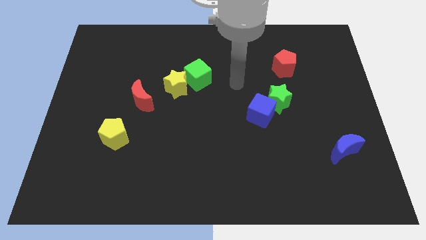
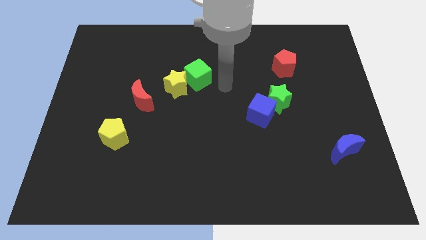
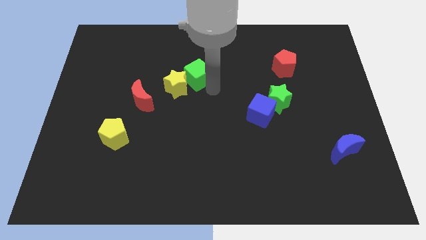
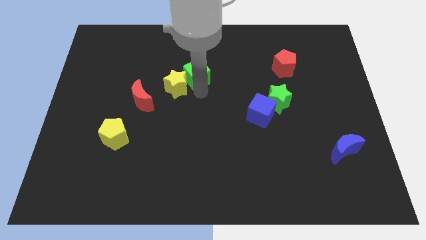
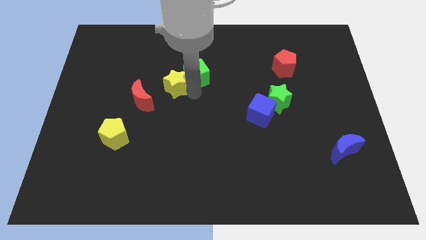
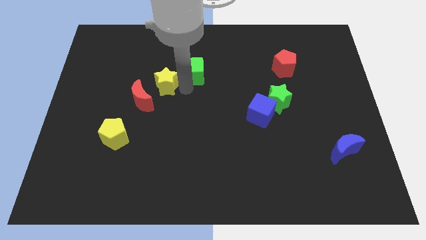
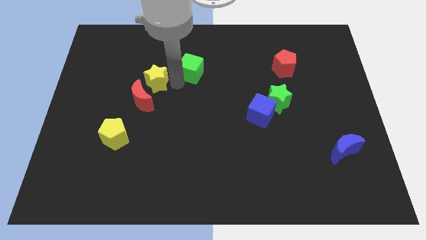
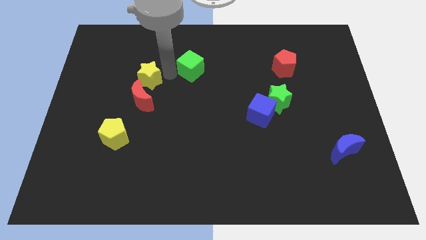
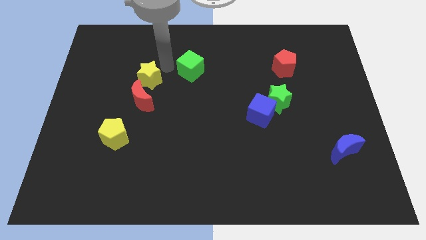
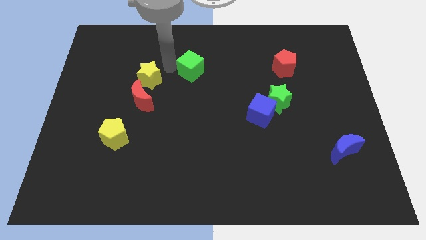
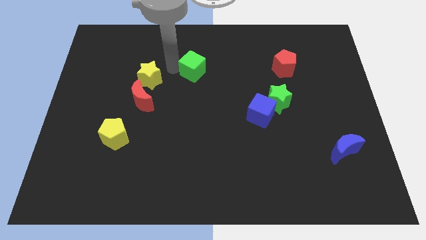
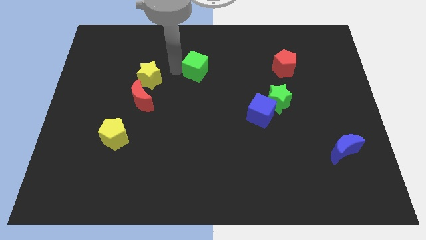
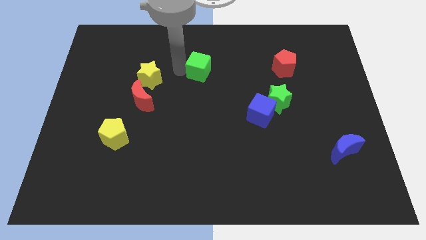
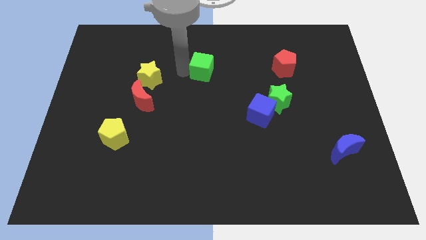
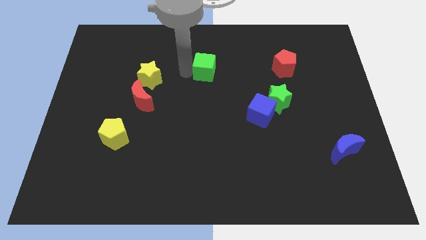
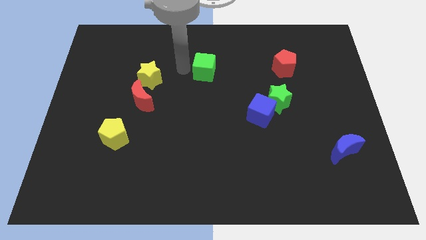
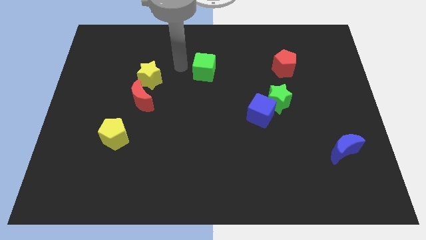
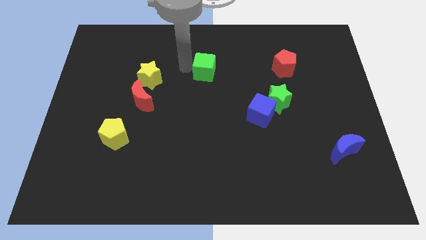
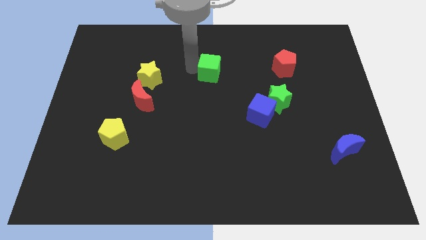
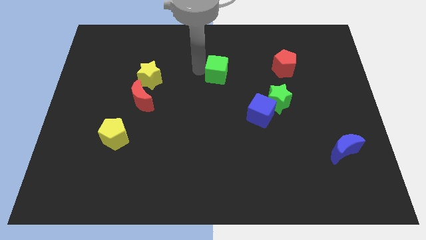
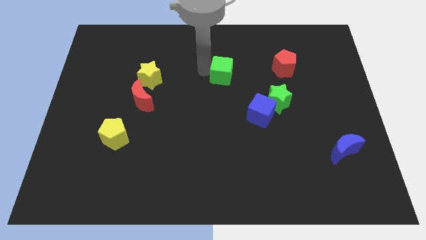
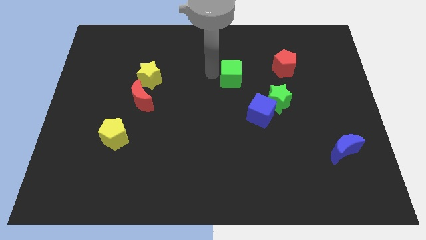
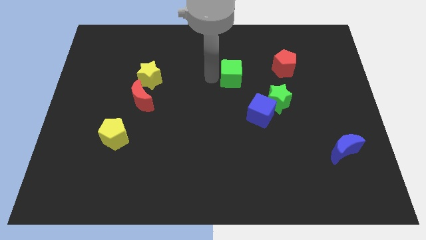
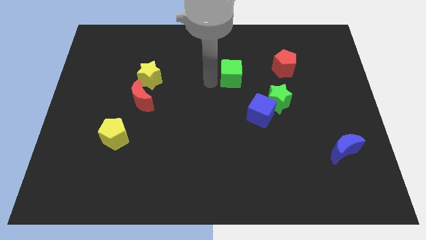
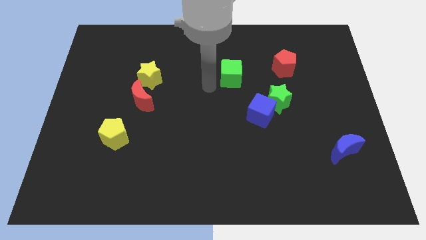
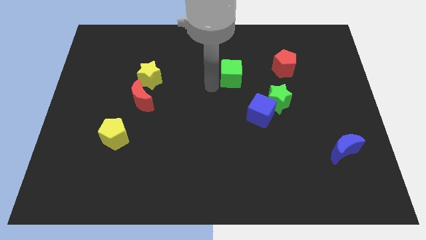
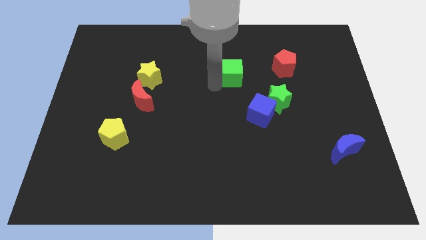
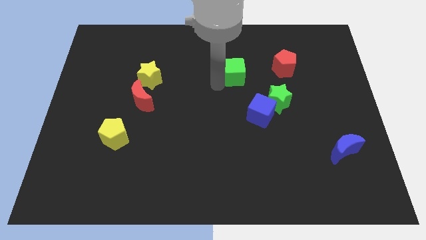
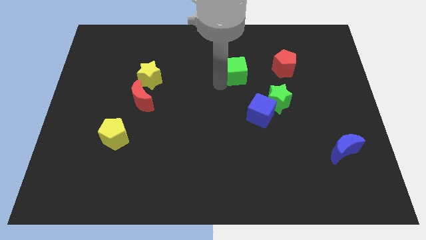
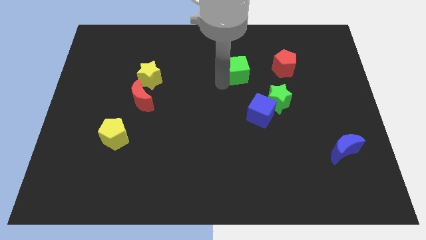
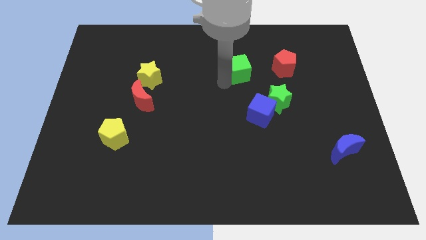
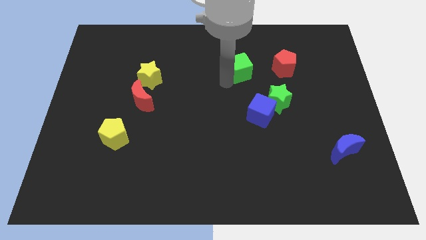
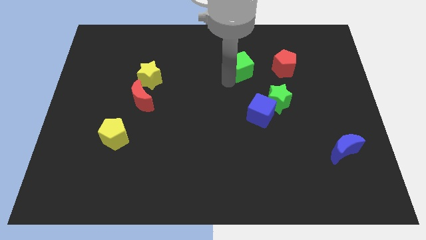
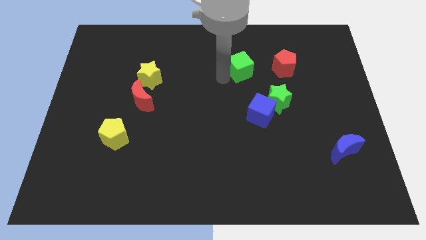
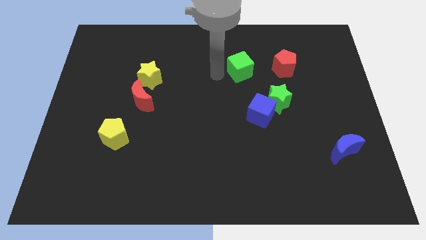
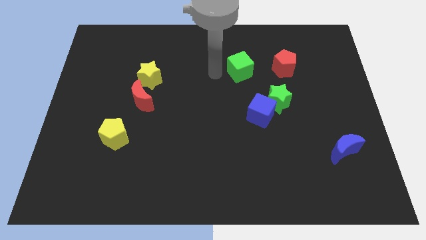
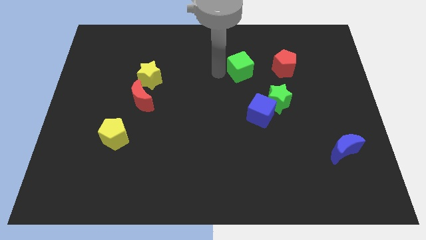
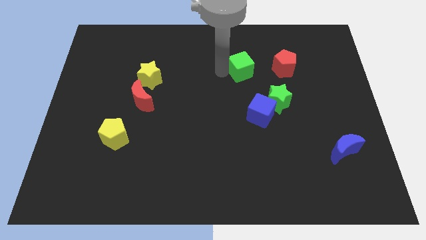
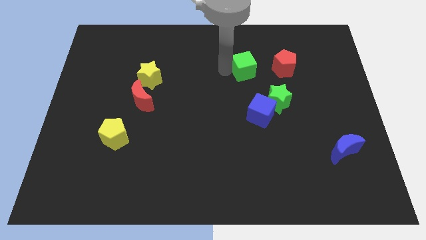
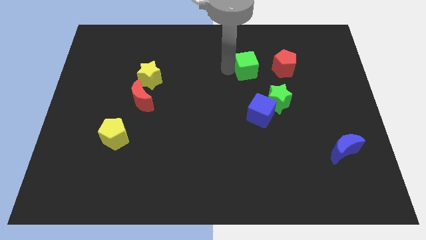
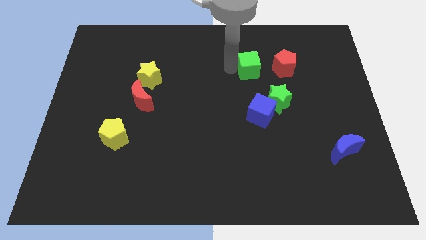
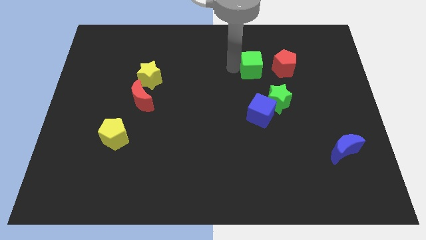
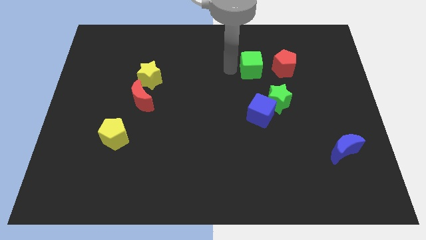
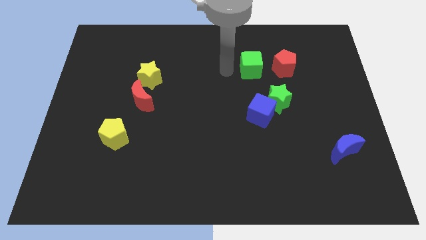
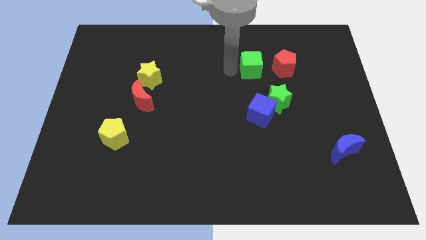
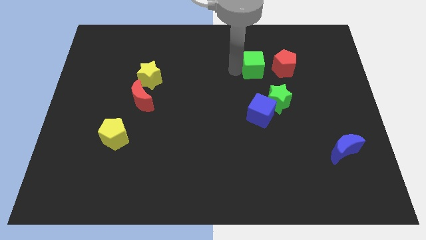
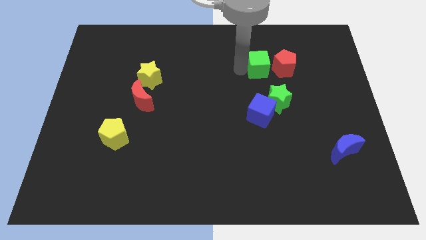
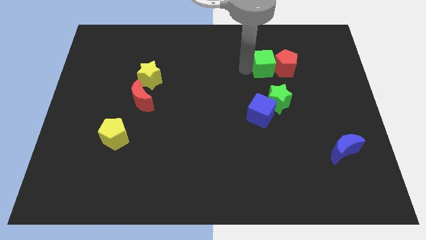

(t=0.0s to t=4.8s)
push the green cube close to the red pentagon

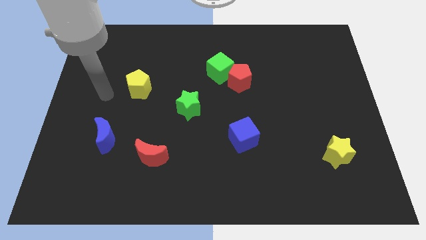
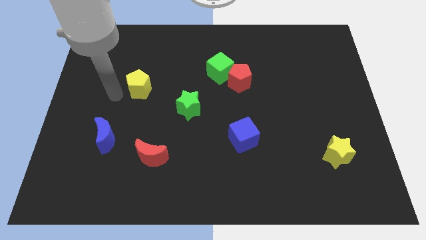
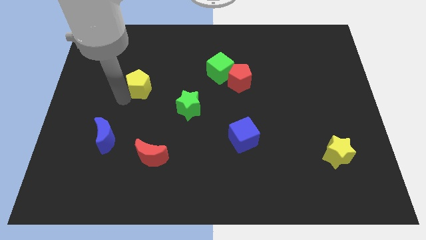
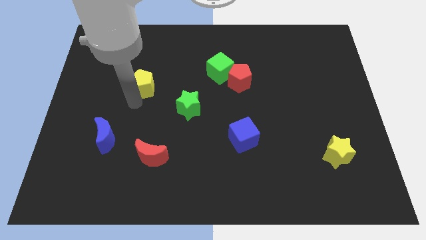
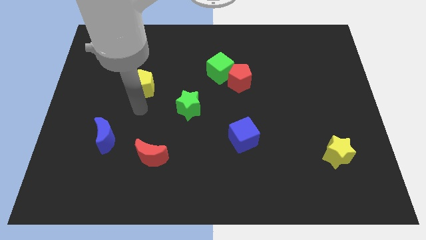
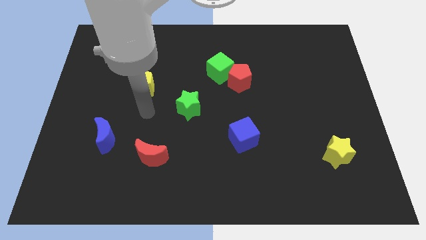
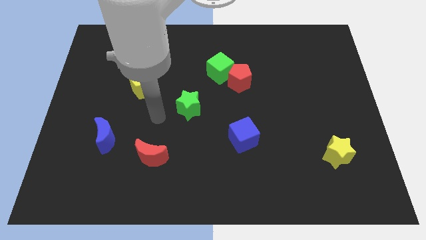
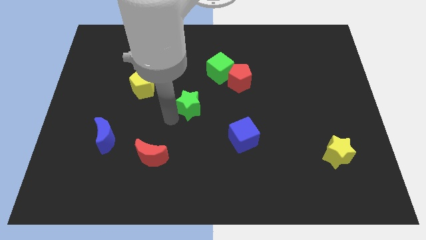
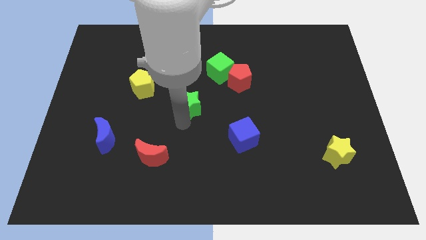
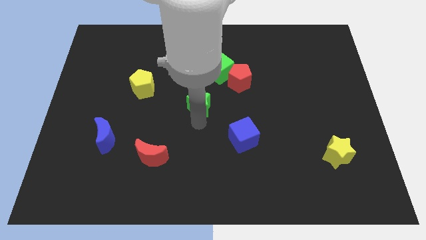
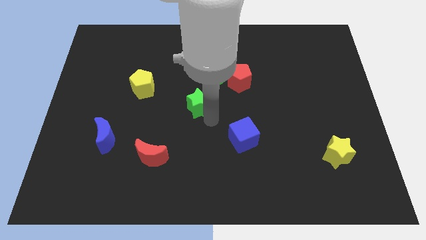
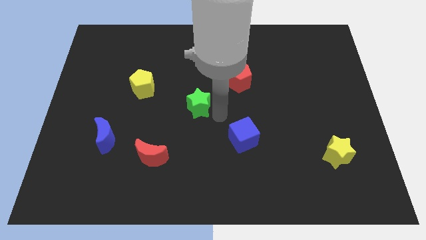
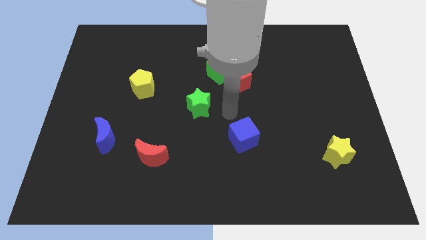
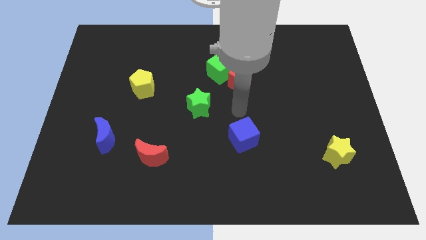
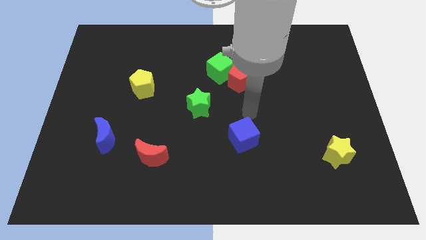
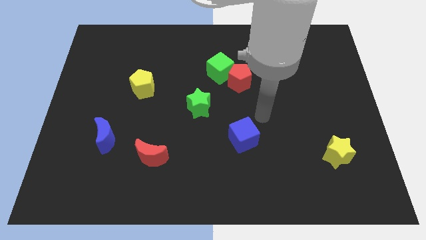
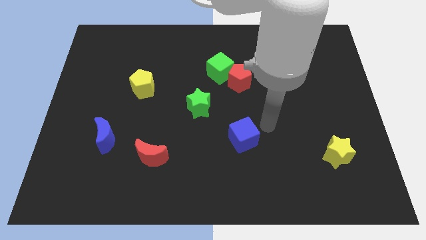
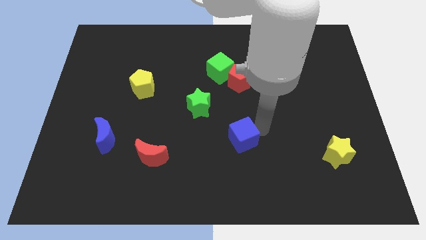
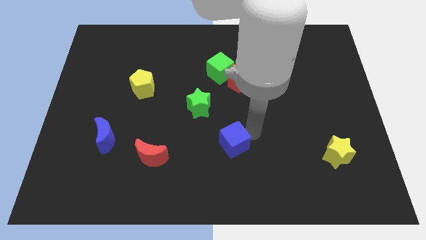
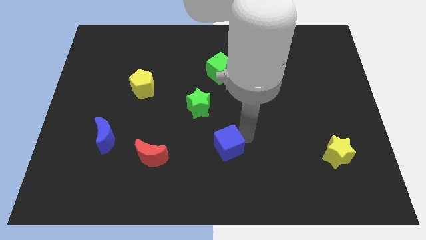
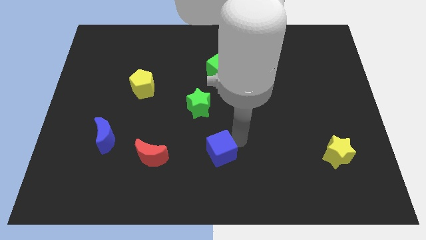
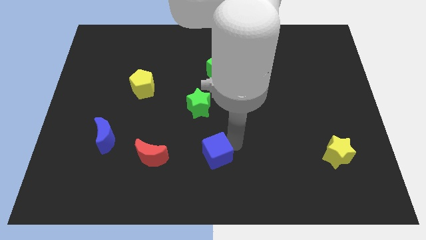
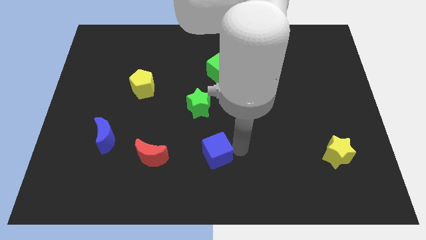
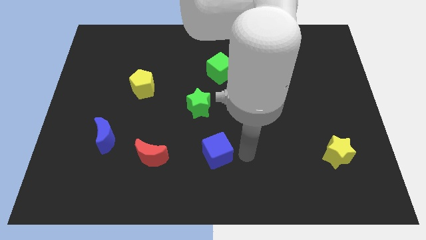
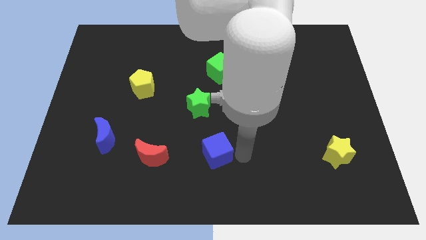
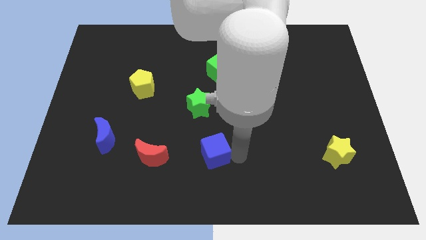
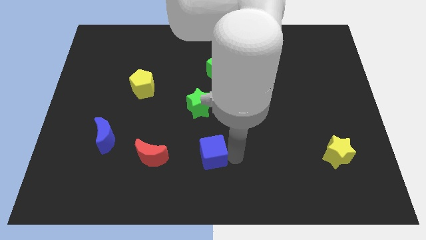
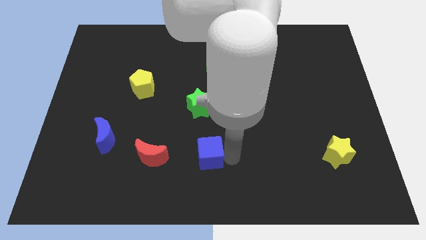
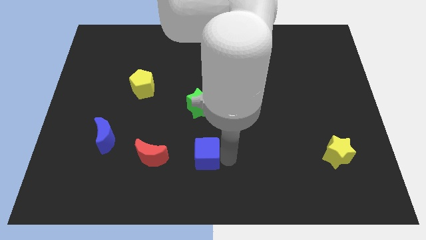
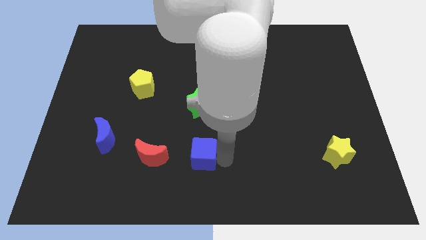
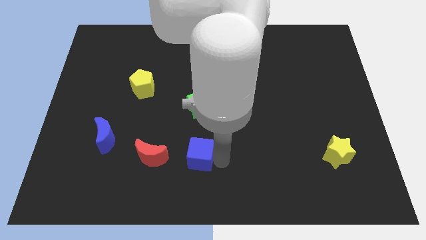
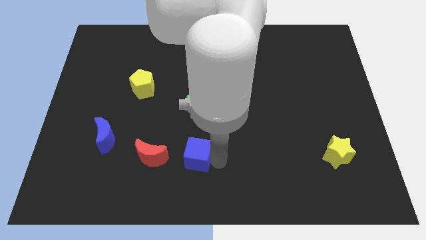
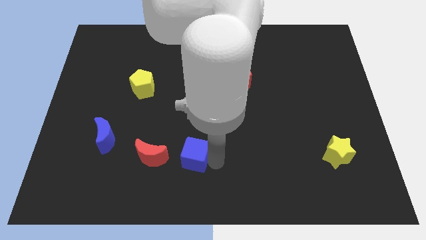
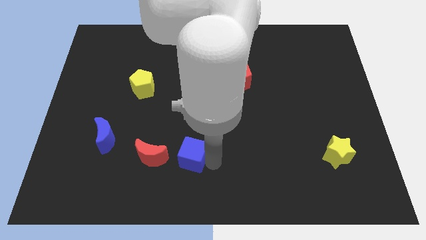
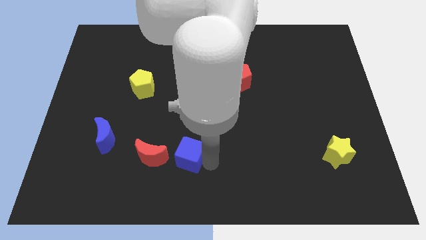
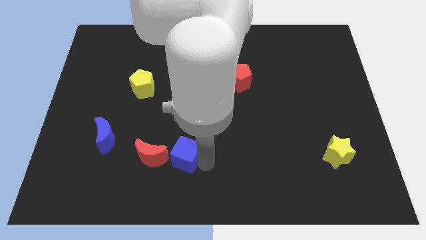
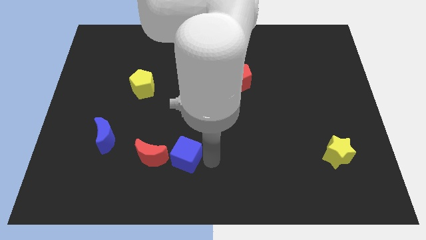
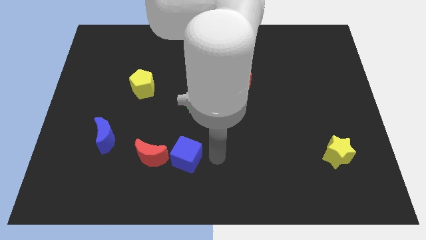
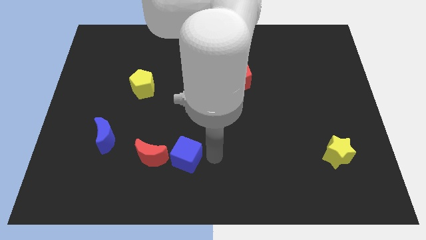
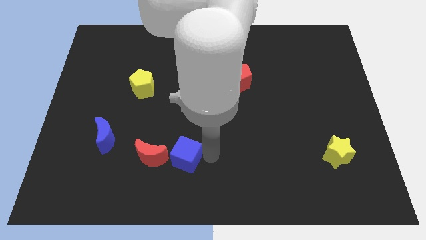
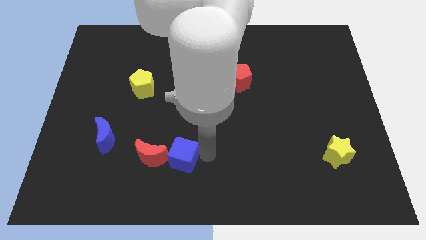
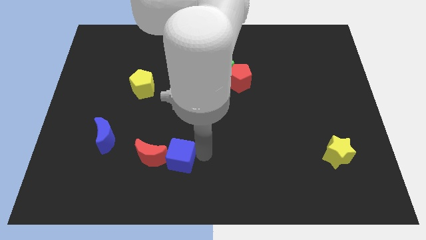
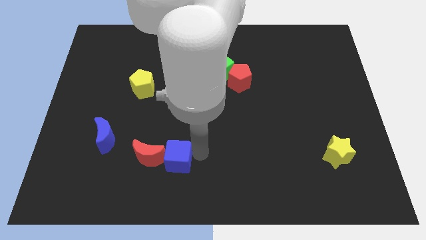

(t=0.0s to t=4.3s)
slide the blue cube close to the red moon
